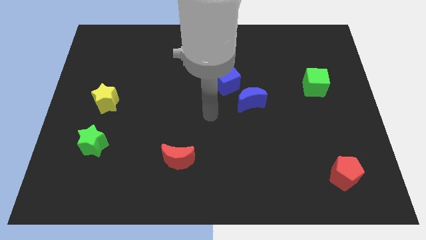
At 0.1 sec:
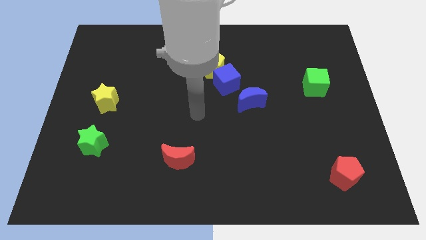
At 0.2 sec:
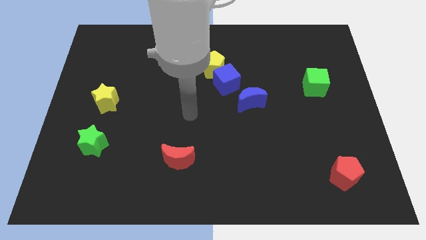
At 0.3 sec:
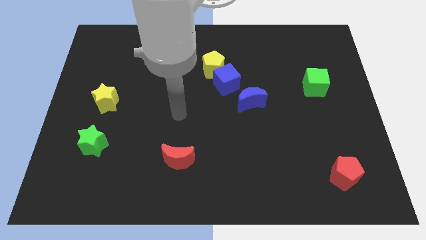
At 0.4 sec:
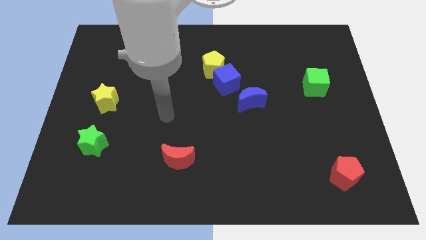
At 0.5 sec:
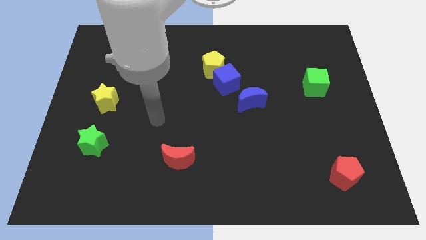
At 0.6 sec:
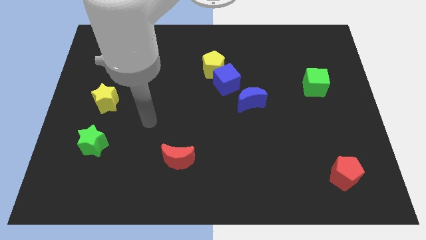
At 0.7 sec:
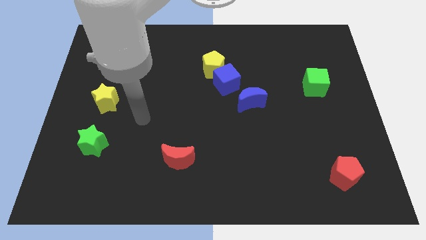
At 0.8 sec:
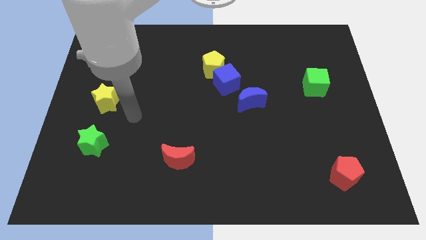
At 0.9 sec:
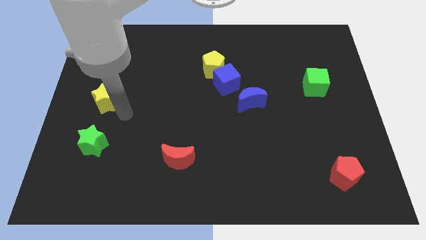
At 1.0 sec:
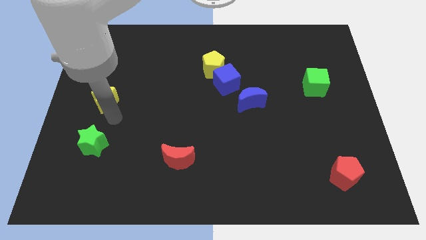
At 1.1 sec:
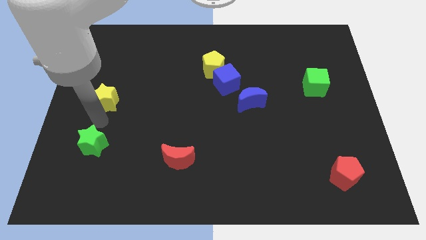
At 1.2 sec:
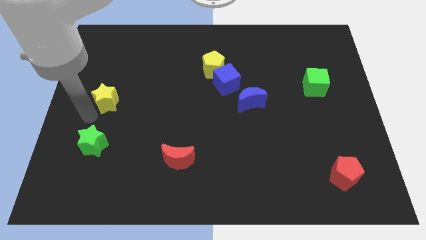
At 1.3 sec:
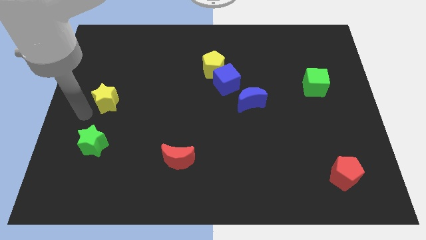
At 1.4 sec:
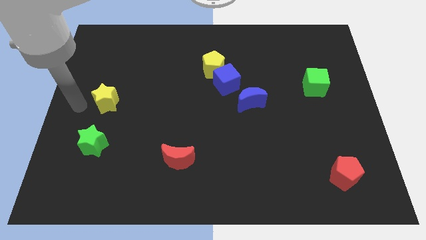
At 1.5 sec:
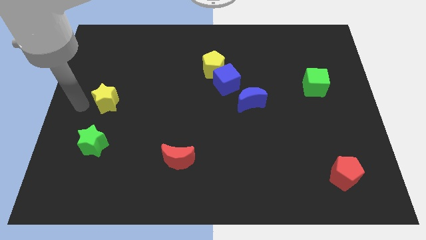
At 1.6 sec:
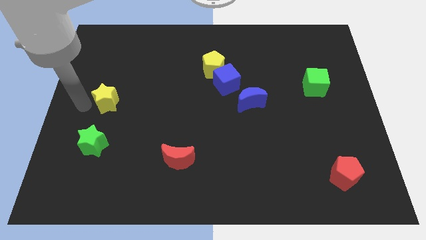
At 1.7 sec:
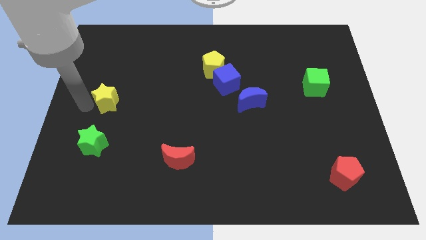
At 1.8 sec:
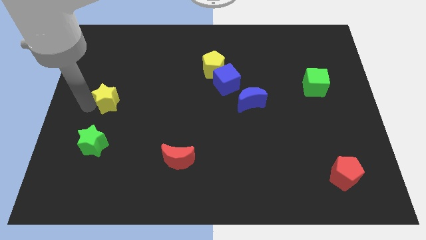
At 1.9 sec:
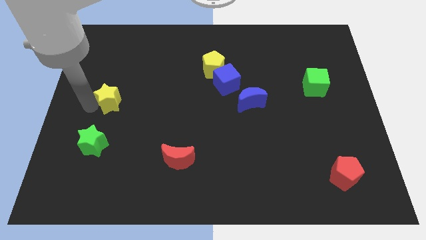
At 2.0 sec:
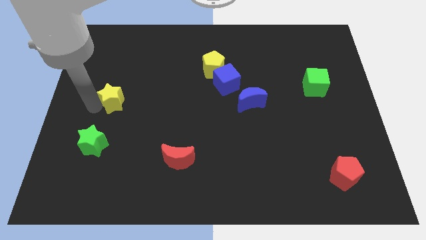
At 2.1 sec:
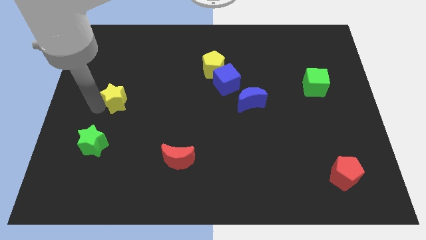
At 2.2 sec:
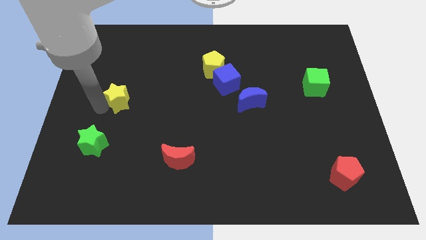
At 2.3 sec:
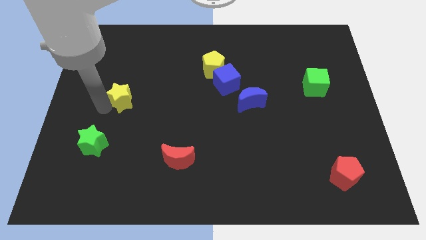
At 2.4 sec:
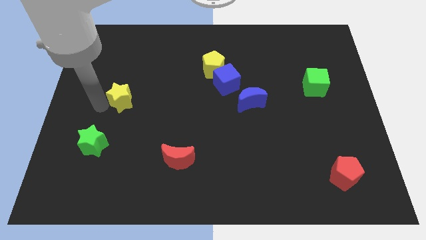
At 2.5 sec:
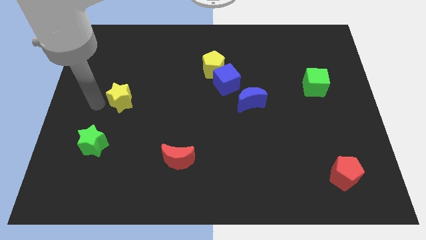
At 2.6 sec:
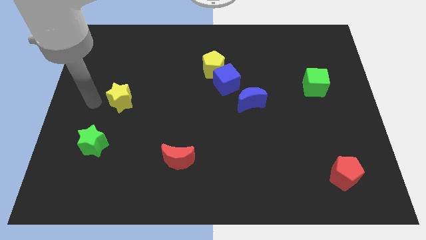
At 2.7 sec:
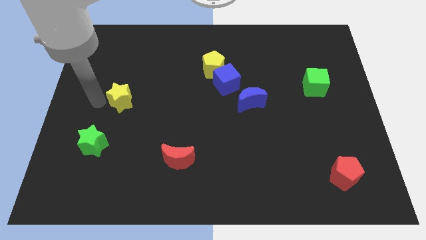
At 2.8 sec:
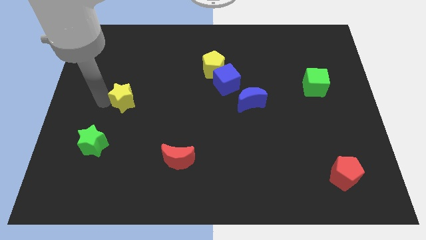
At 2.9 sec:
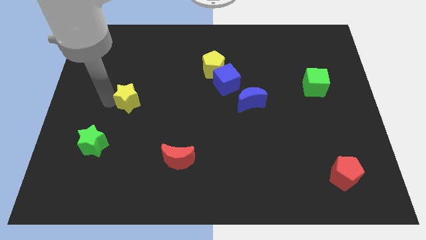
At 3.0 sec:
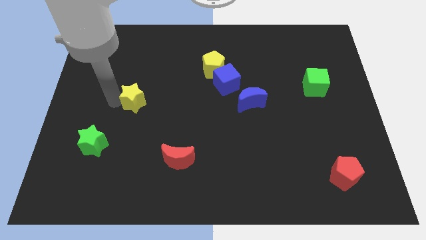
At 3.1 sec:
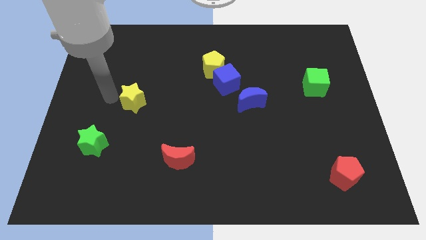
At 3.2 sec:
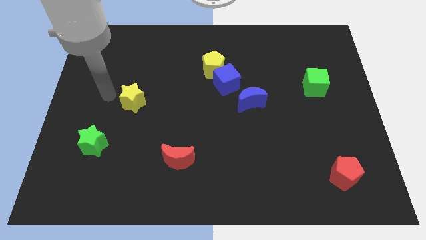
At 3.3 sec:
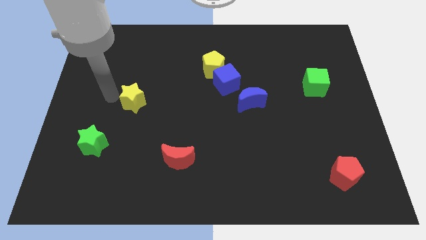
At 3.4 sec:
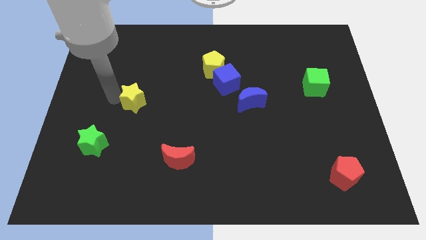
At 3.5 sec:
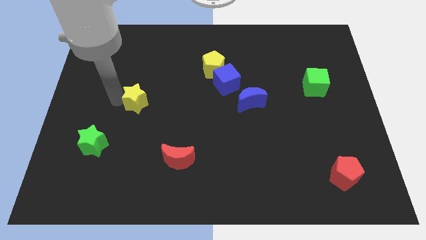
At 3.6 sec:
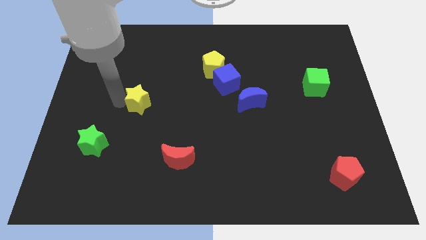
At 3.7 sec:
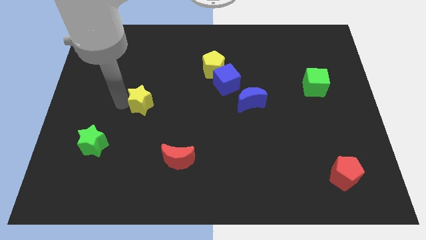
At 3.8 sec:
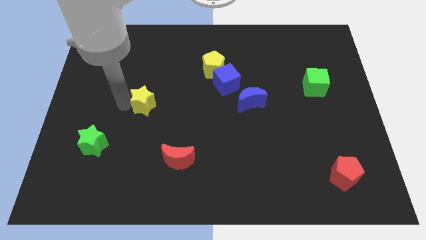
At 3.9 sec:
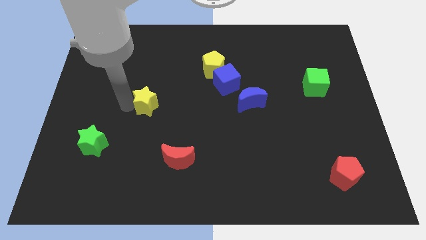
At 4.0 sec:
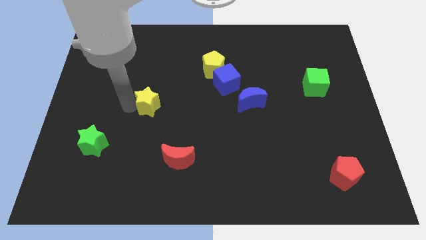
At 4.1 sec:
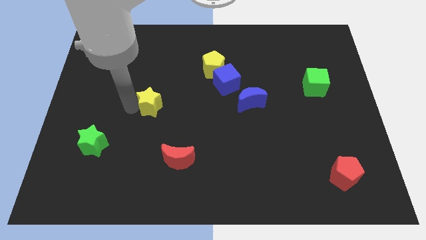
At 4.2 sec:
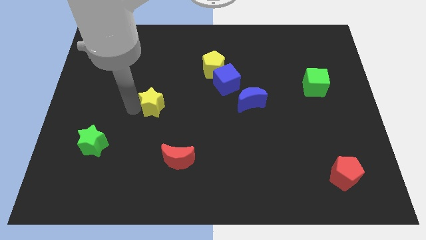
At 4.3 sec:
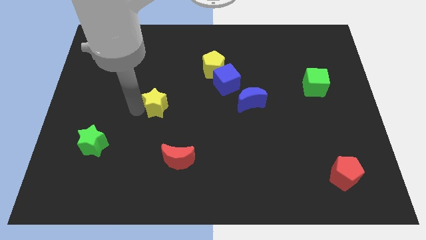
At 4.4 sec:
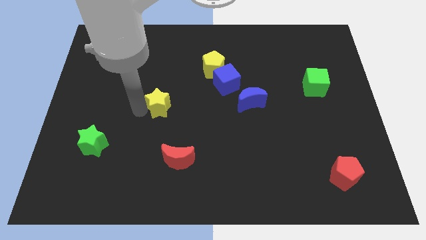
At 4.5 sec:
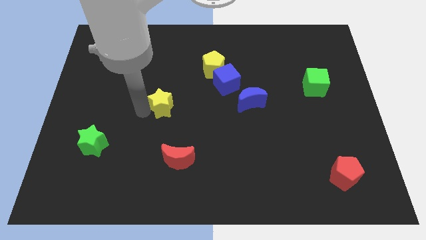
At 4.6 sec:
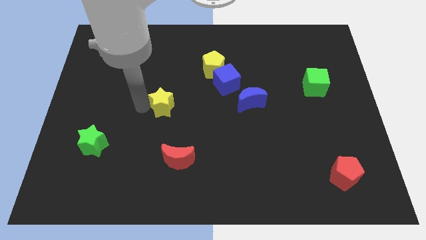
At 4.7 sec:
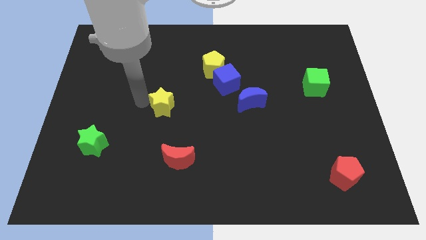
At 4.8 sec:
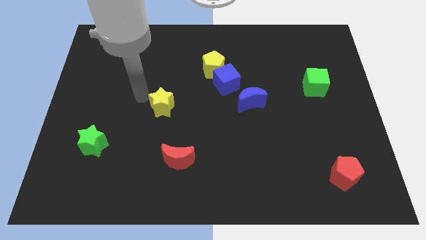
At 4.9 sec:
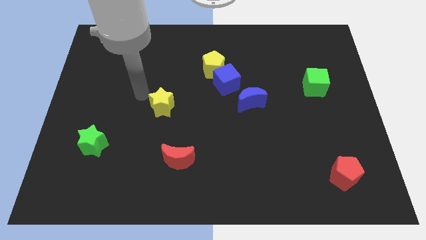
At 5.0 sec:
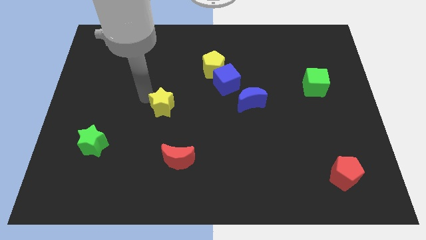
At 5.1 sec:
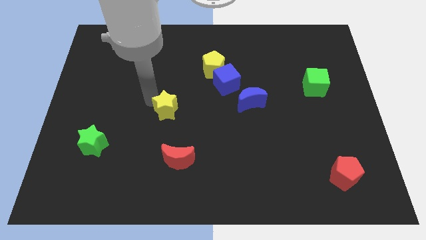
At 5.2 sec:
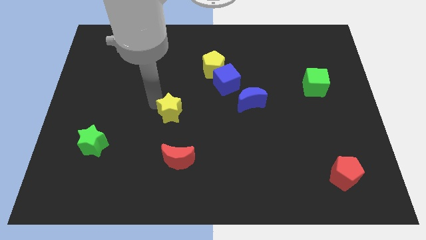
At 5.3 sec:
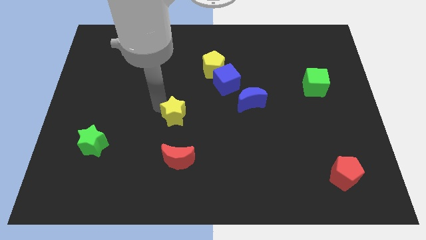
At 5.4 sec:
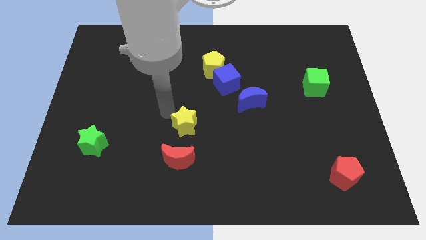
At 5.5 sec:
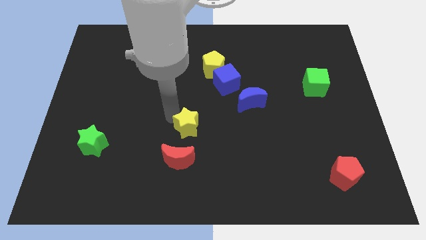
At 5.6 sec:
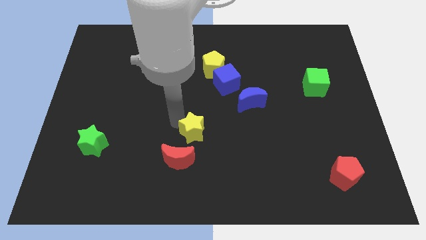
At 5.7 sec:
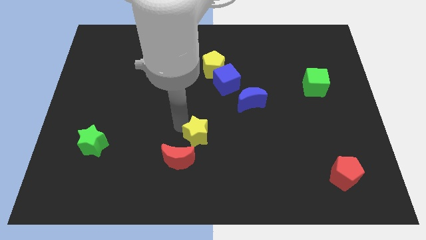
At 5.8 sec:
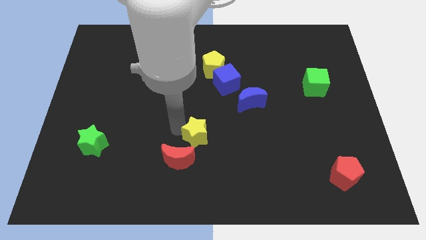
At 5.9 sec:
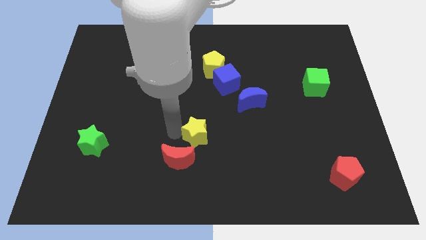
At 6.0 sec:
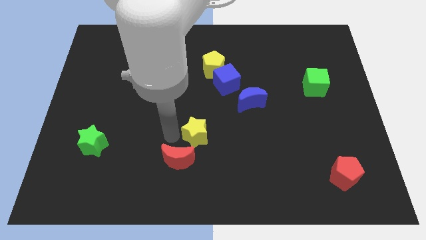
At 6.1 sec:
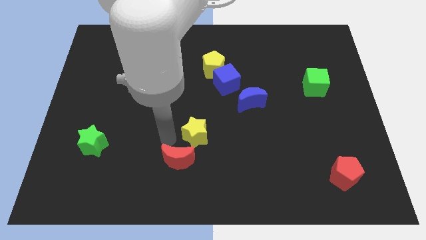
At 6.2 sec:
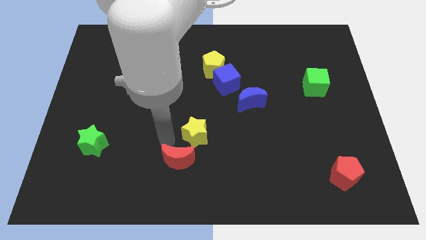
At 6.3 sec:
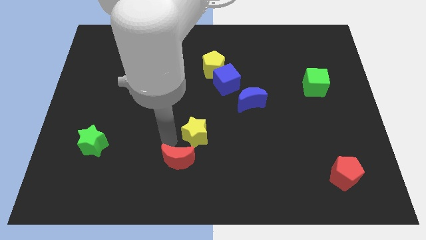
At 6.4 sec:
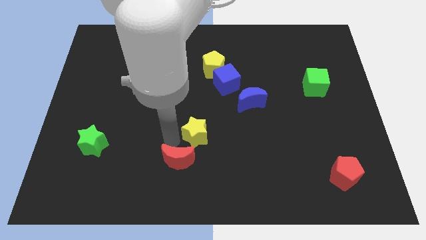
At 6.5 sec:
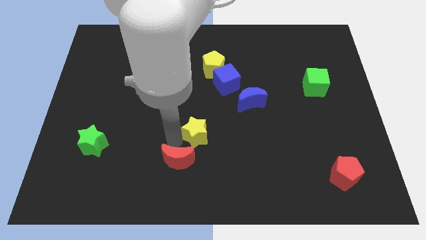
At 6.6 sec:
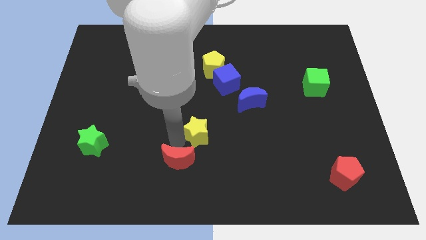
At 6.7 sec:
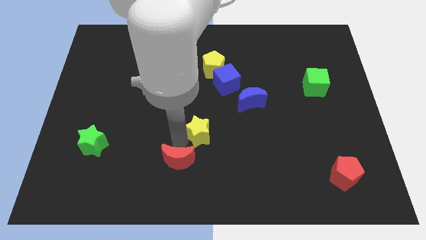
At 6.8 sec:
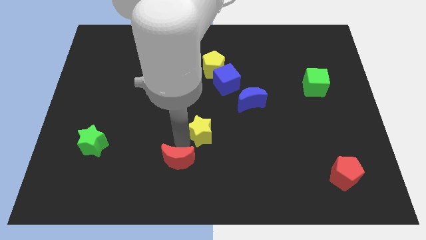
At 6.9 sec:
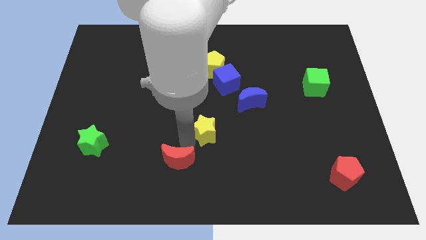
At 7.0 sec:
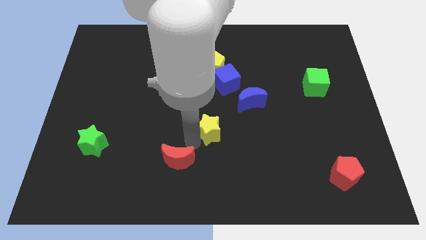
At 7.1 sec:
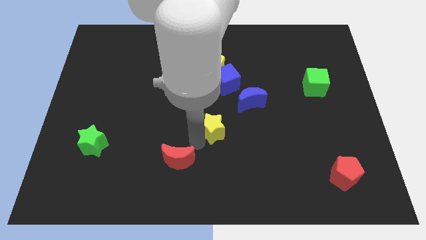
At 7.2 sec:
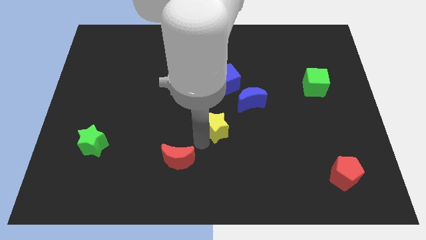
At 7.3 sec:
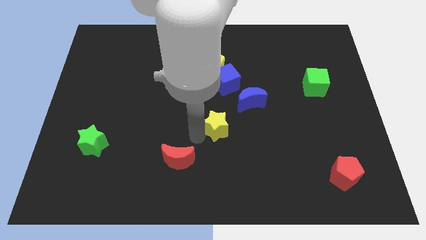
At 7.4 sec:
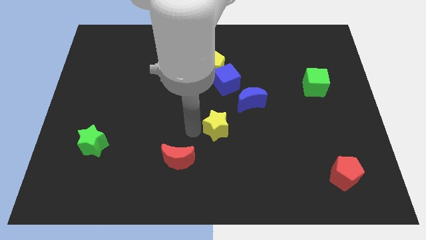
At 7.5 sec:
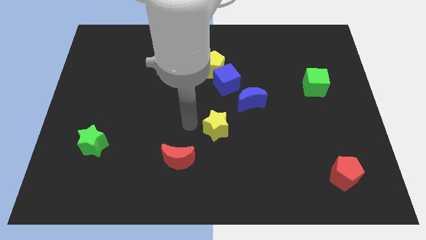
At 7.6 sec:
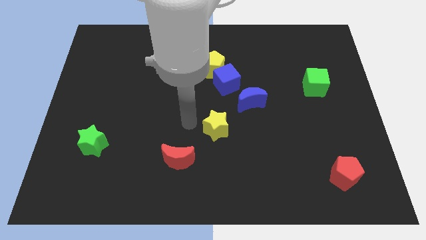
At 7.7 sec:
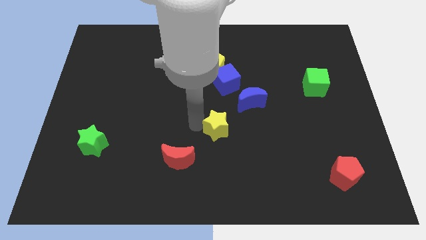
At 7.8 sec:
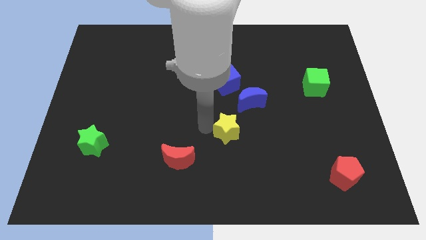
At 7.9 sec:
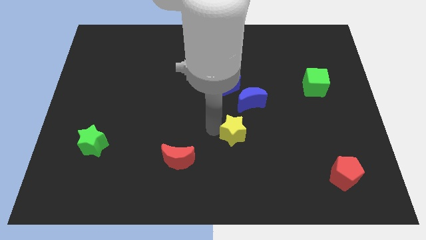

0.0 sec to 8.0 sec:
put the yellow star to the bottom of the blue moon
